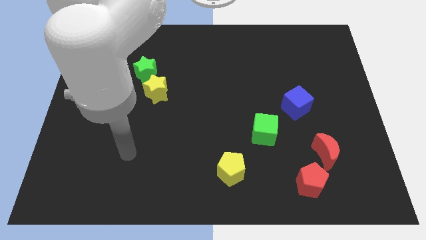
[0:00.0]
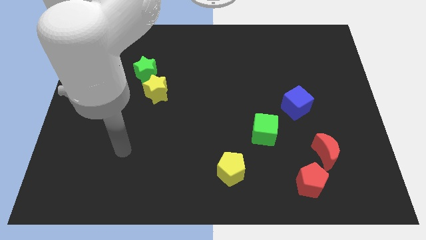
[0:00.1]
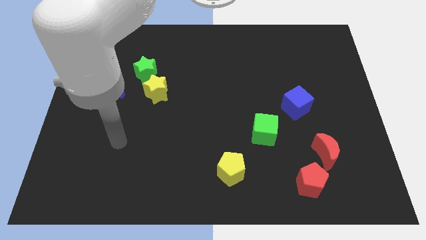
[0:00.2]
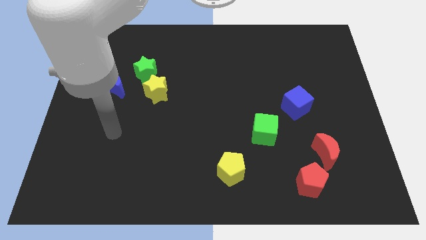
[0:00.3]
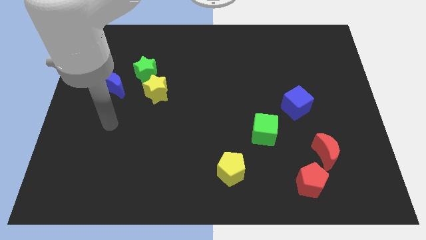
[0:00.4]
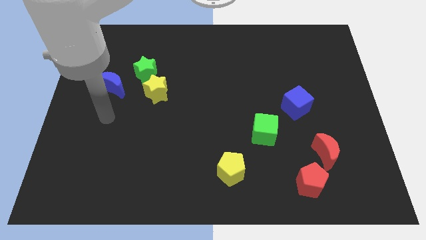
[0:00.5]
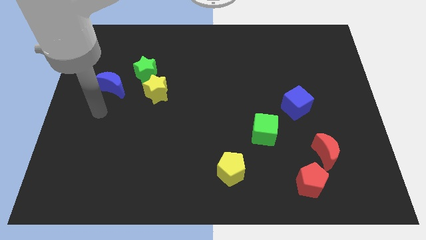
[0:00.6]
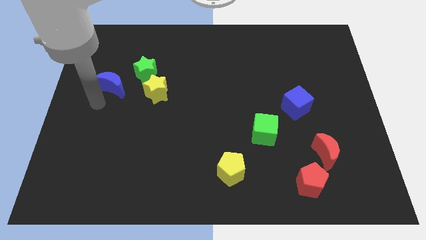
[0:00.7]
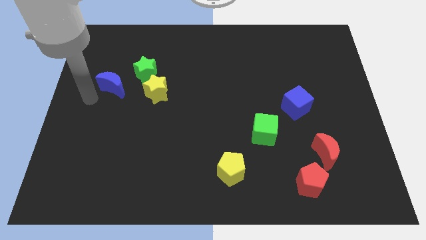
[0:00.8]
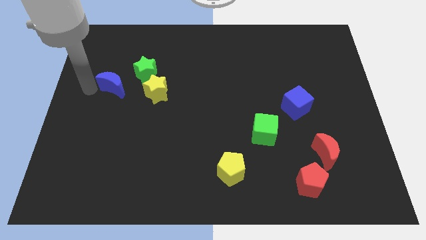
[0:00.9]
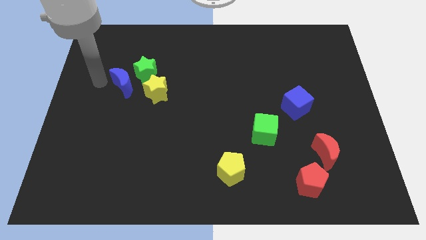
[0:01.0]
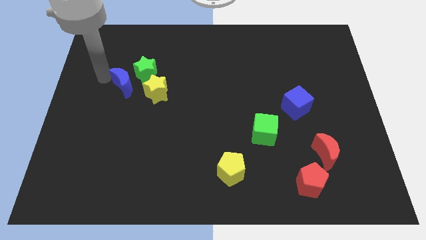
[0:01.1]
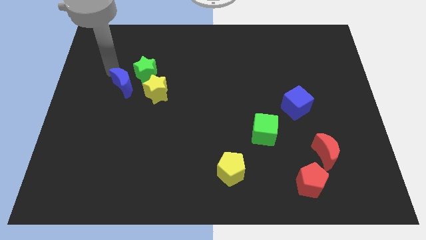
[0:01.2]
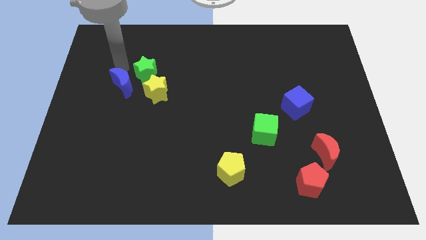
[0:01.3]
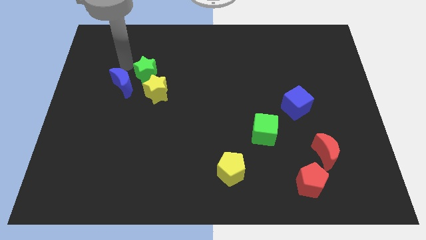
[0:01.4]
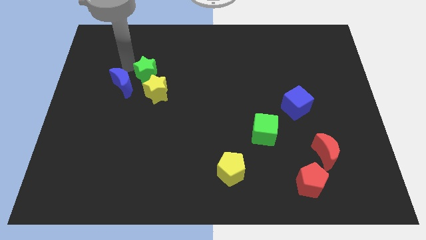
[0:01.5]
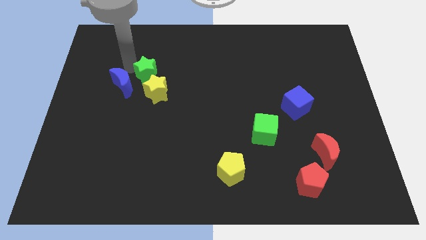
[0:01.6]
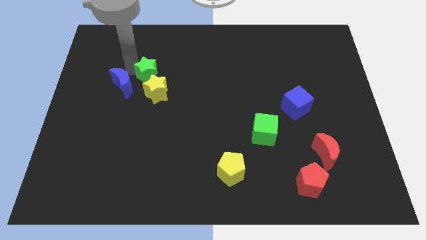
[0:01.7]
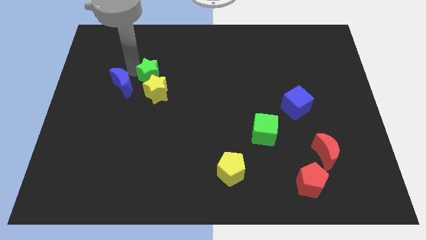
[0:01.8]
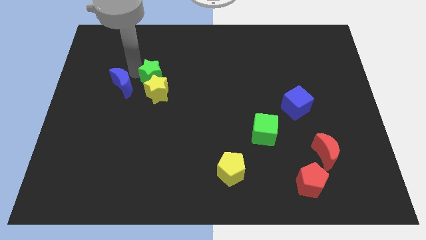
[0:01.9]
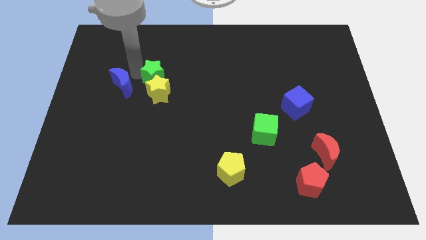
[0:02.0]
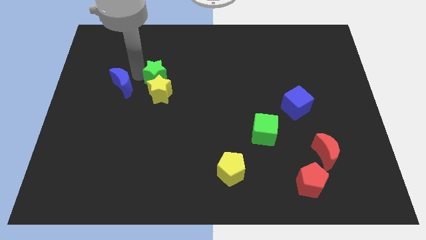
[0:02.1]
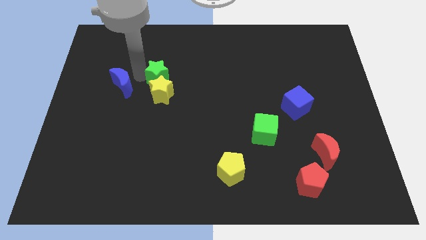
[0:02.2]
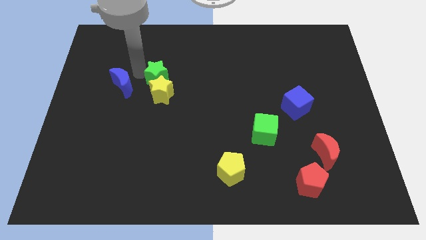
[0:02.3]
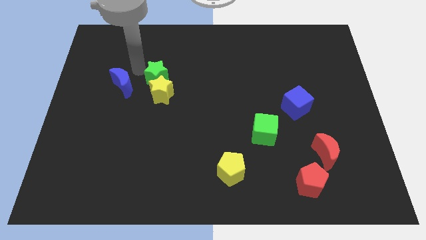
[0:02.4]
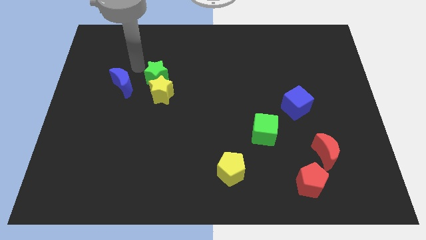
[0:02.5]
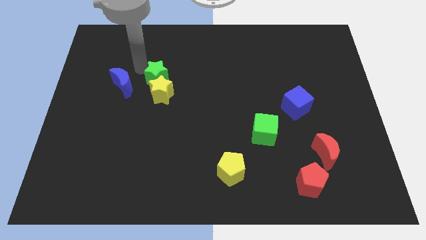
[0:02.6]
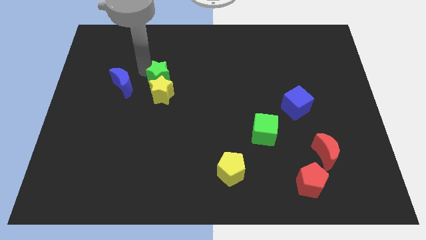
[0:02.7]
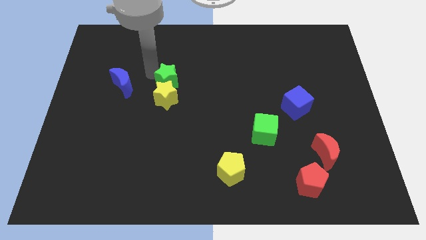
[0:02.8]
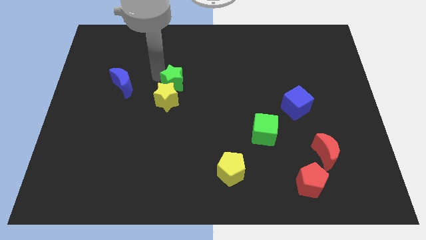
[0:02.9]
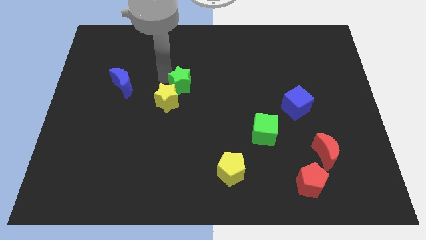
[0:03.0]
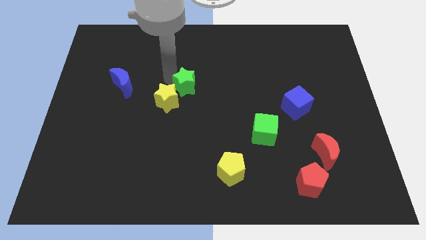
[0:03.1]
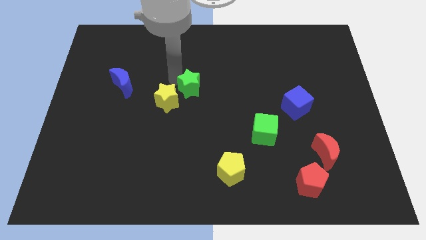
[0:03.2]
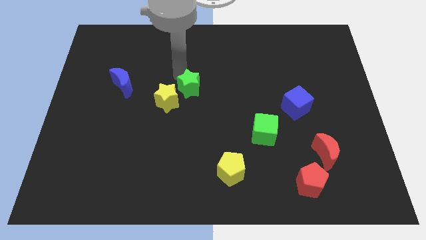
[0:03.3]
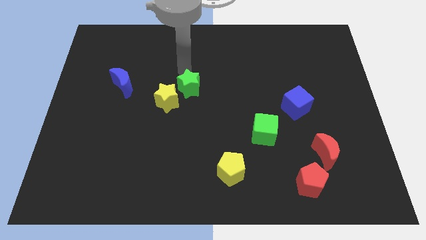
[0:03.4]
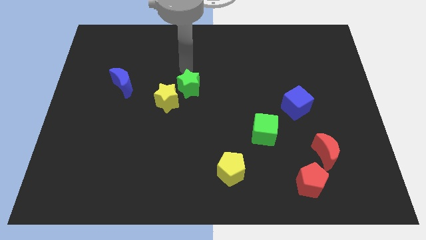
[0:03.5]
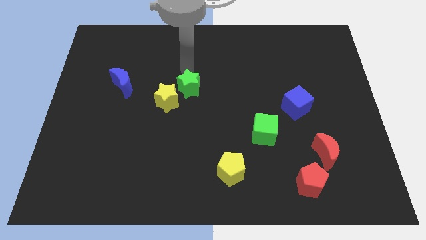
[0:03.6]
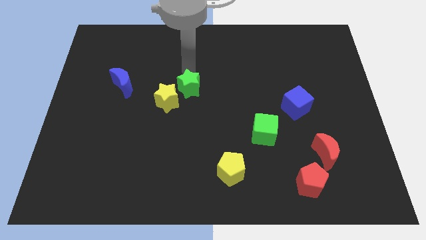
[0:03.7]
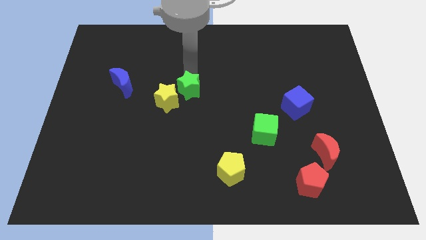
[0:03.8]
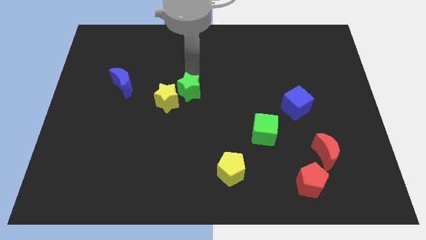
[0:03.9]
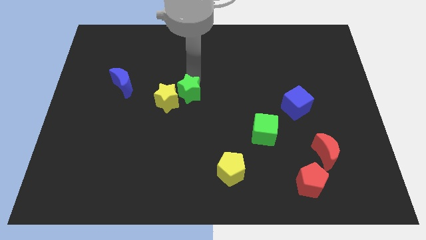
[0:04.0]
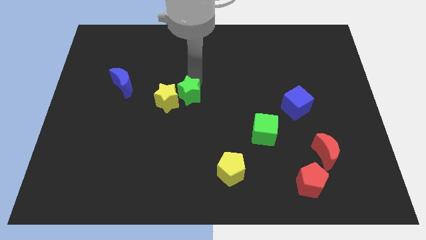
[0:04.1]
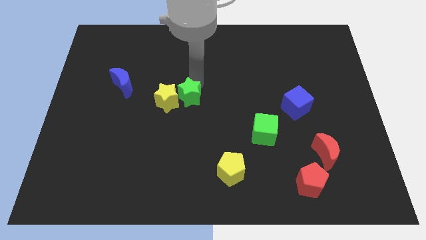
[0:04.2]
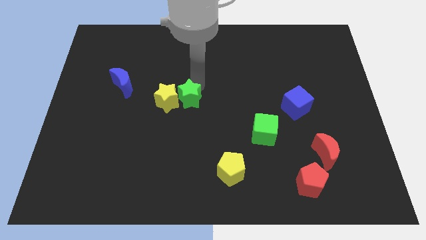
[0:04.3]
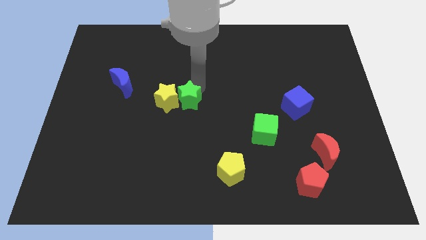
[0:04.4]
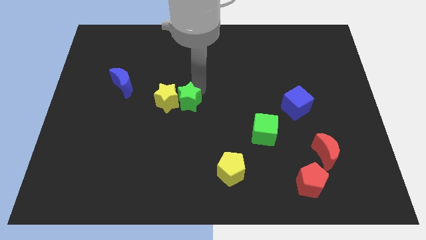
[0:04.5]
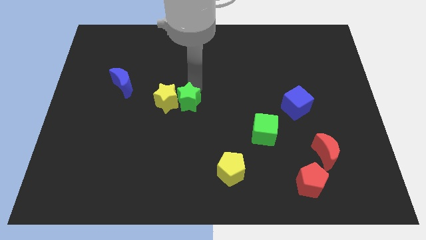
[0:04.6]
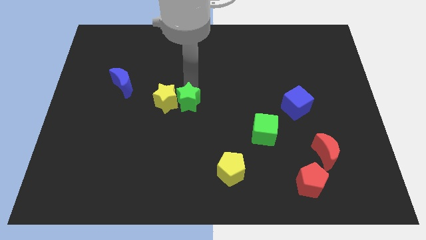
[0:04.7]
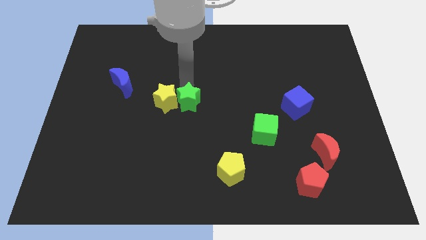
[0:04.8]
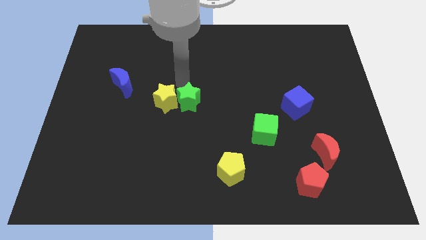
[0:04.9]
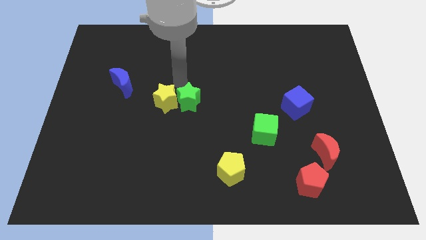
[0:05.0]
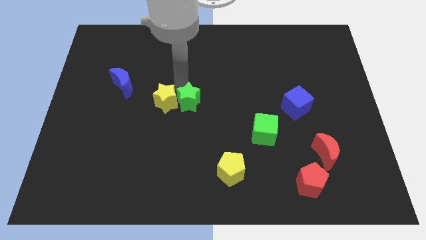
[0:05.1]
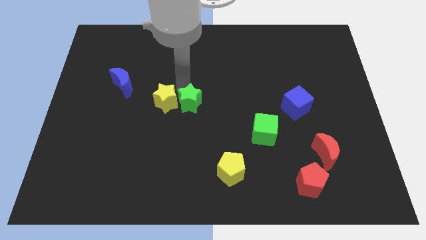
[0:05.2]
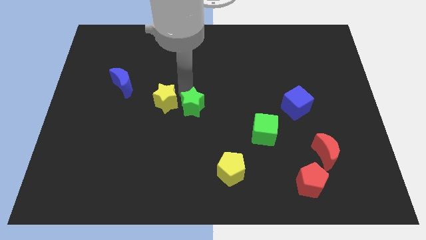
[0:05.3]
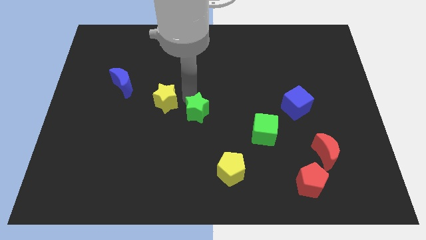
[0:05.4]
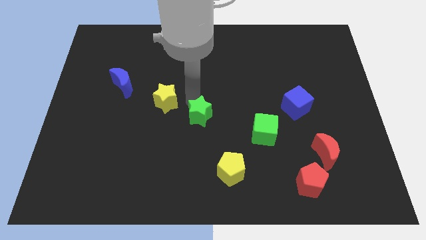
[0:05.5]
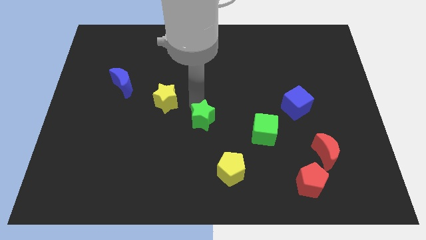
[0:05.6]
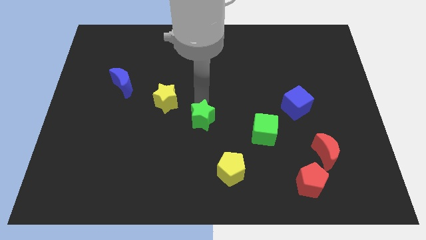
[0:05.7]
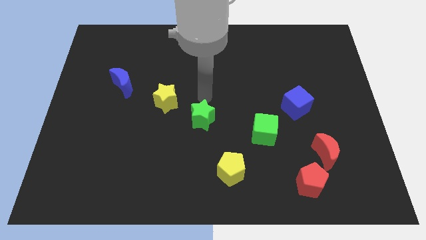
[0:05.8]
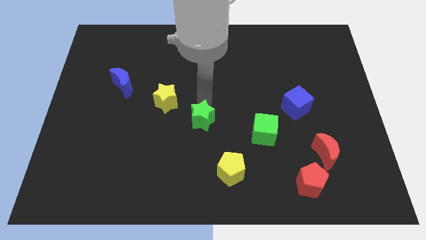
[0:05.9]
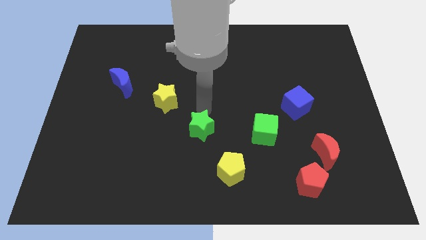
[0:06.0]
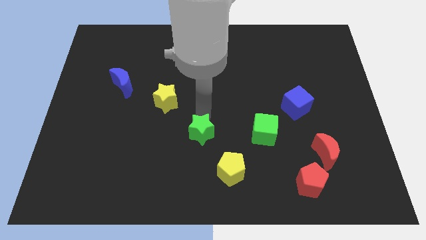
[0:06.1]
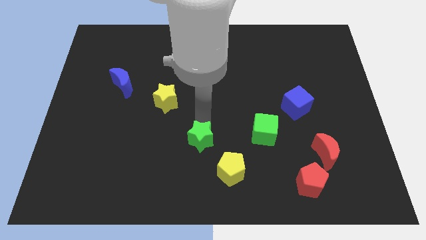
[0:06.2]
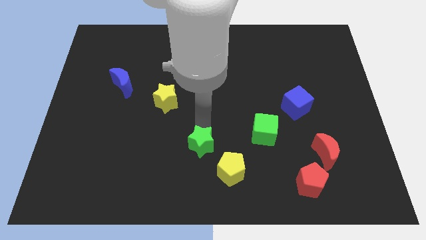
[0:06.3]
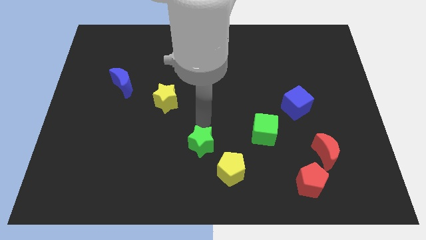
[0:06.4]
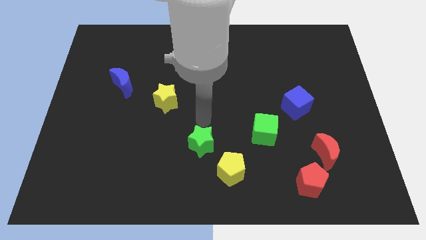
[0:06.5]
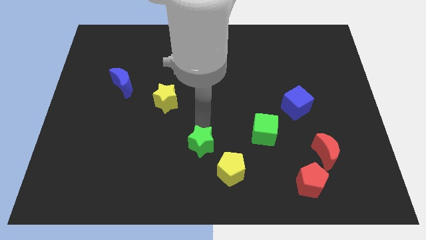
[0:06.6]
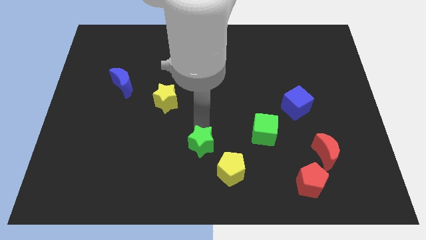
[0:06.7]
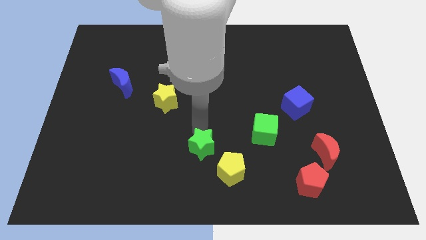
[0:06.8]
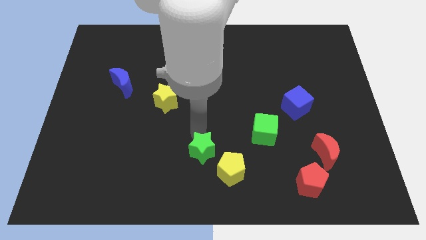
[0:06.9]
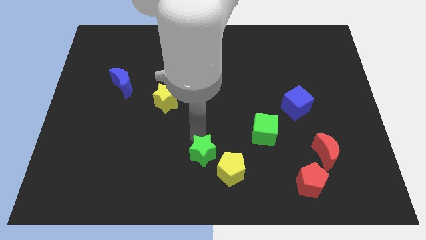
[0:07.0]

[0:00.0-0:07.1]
slide the green star to the bottom
